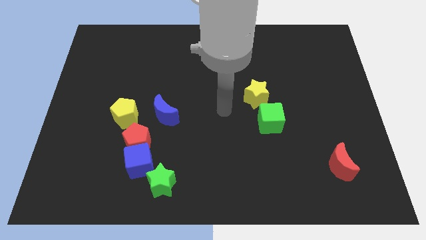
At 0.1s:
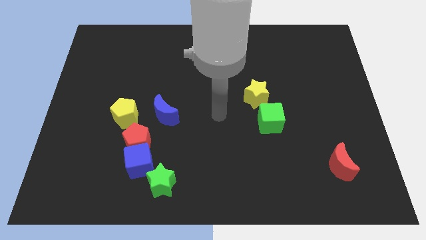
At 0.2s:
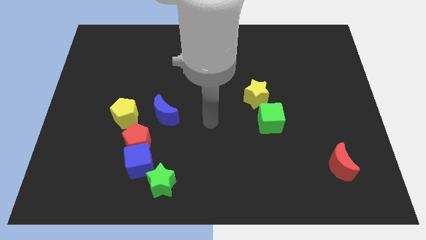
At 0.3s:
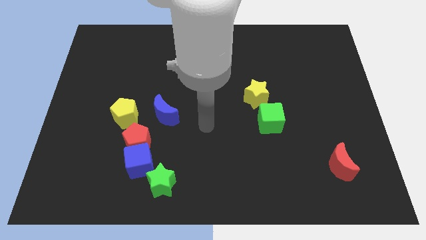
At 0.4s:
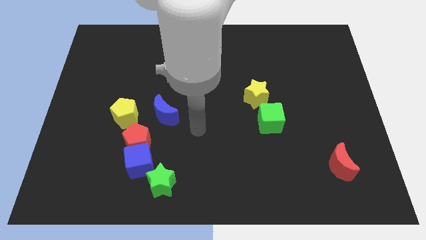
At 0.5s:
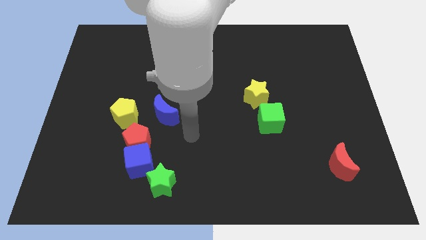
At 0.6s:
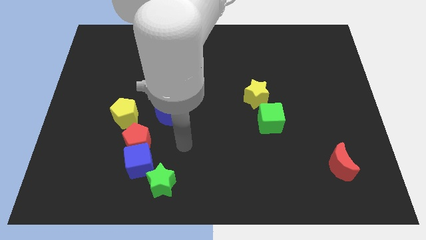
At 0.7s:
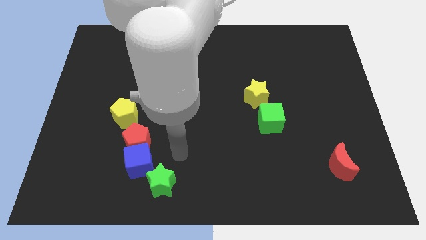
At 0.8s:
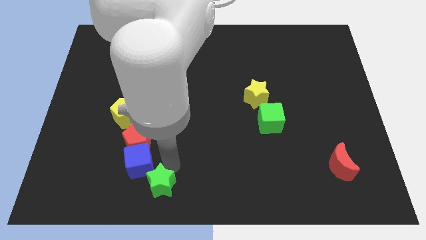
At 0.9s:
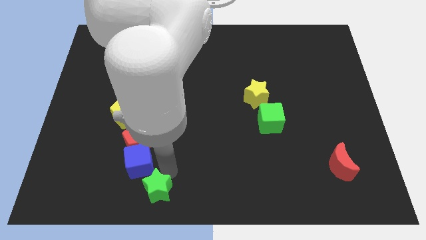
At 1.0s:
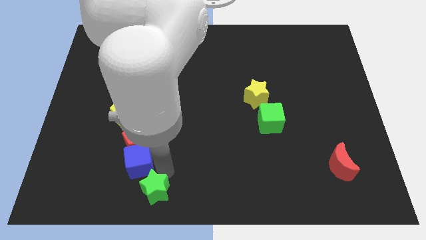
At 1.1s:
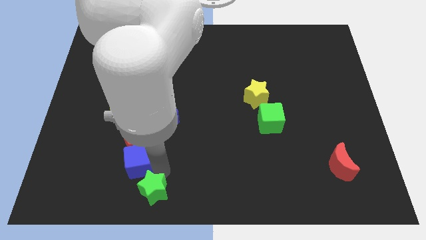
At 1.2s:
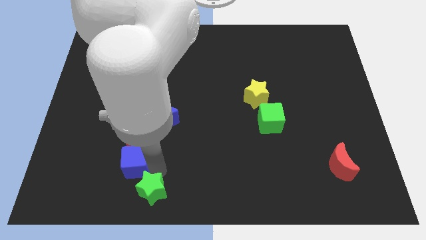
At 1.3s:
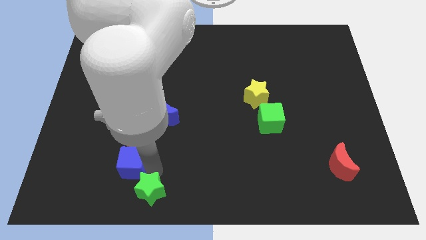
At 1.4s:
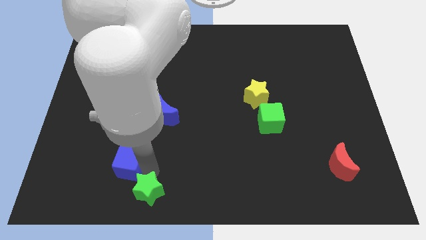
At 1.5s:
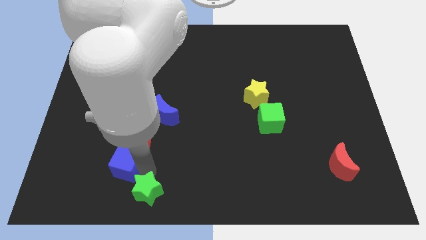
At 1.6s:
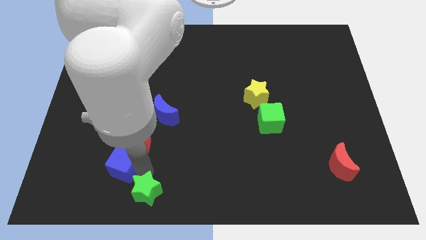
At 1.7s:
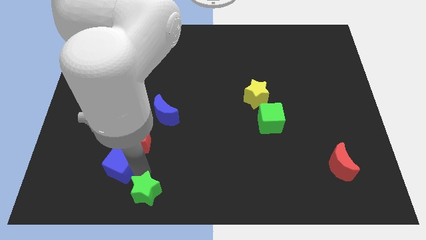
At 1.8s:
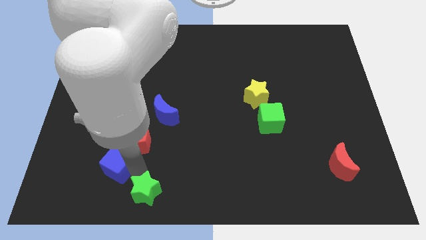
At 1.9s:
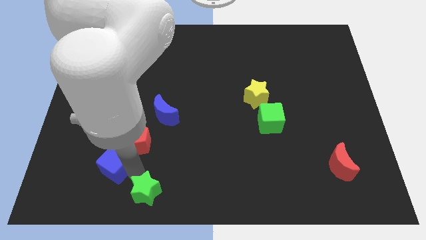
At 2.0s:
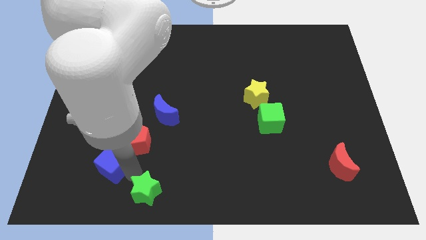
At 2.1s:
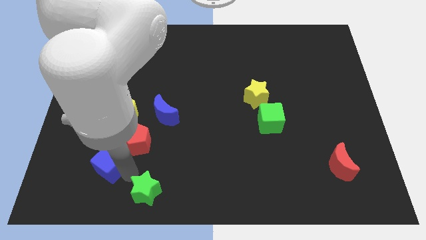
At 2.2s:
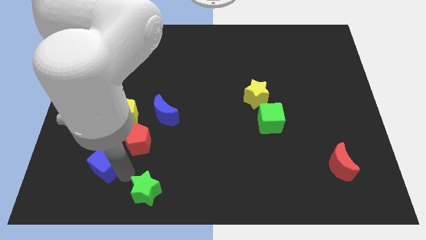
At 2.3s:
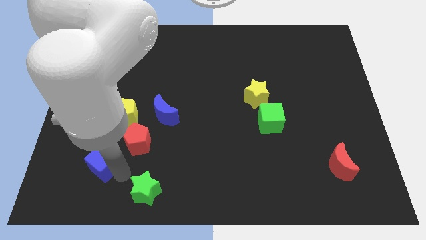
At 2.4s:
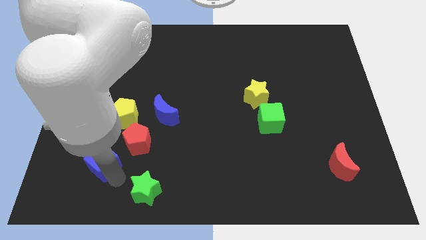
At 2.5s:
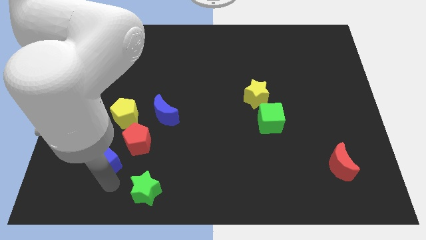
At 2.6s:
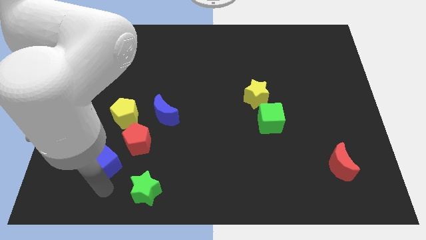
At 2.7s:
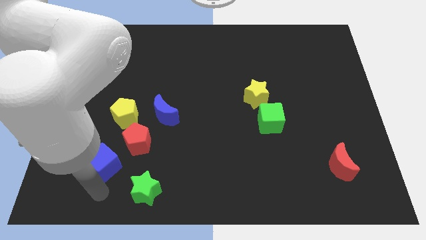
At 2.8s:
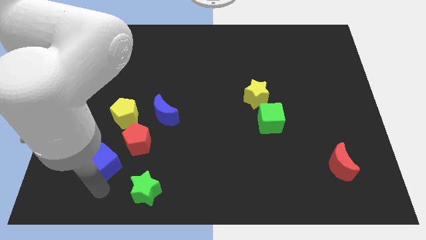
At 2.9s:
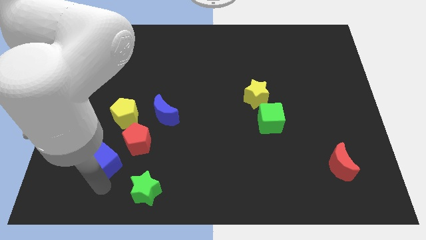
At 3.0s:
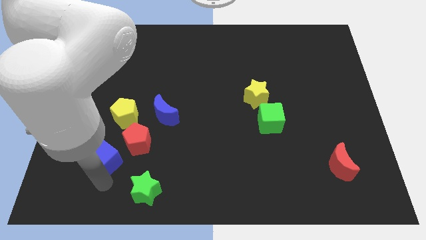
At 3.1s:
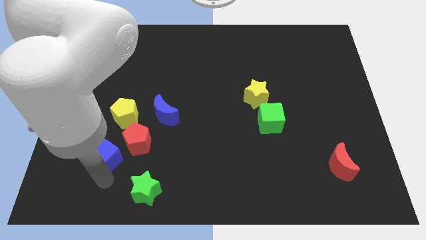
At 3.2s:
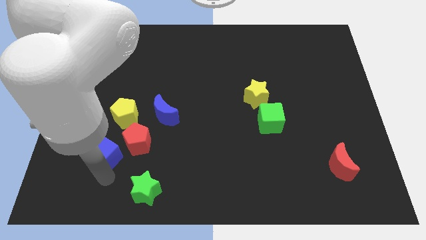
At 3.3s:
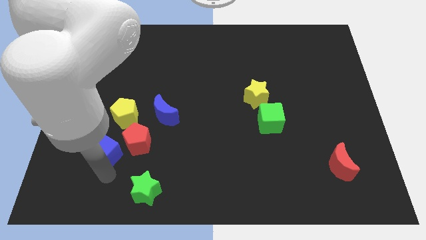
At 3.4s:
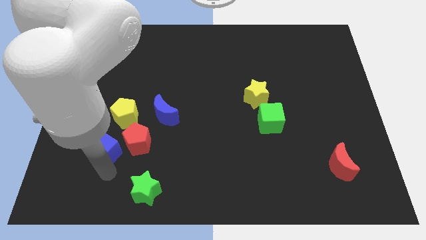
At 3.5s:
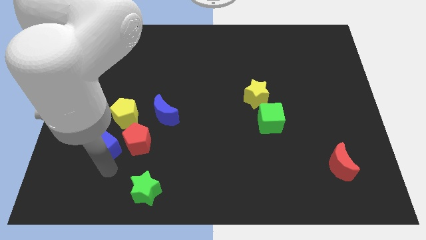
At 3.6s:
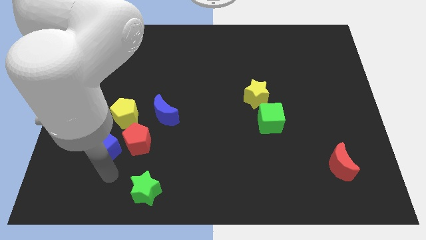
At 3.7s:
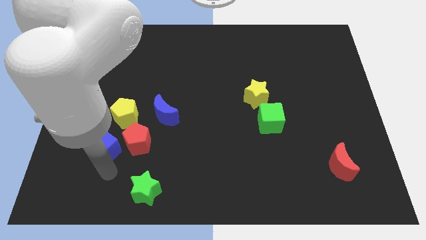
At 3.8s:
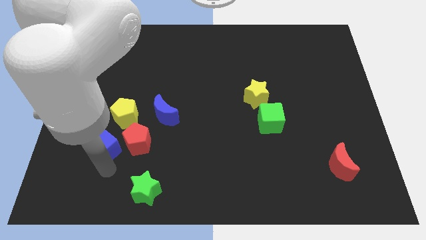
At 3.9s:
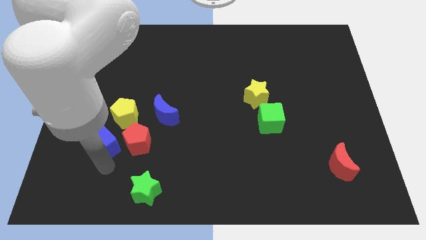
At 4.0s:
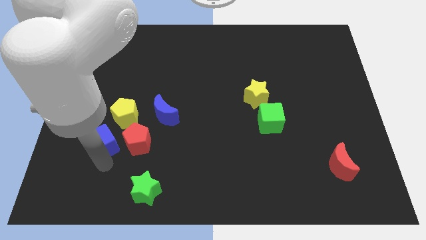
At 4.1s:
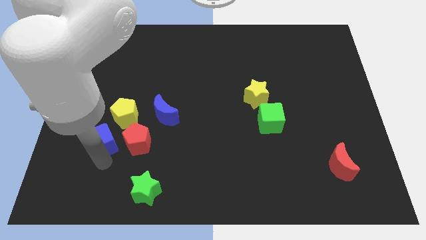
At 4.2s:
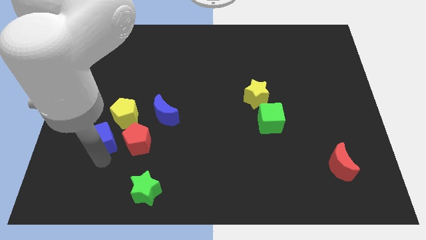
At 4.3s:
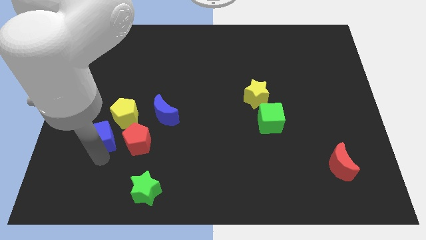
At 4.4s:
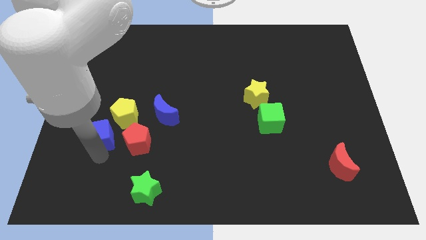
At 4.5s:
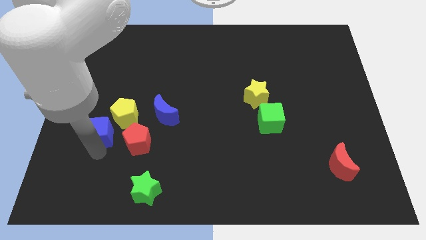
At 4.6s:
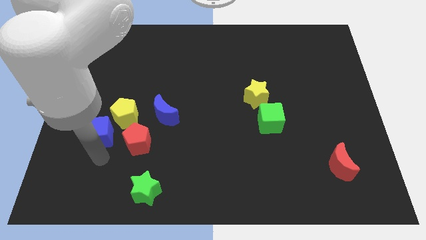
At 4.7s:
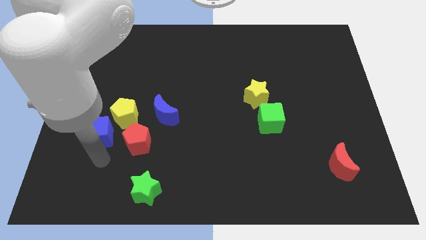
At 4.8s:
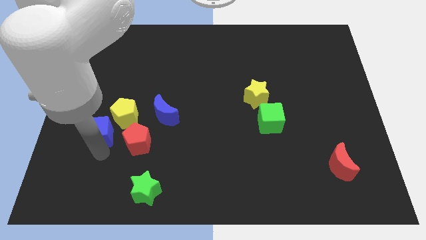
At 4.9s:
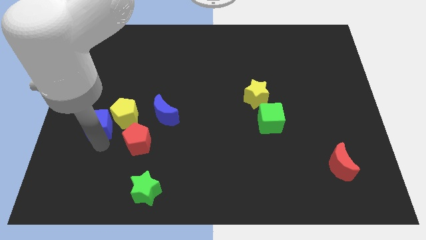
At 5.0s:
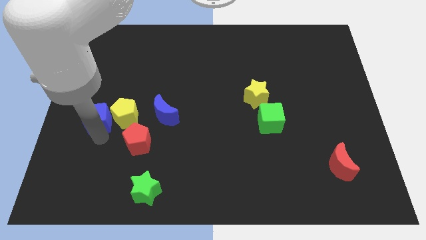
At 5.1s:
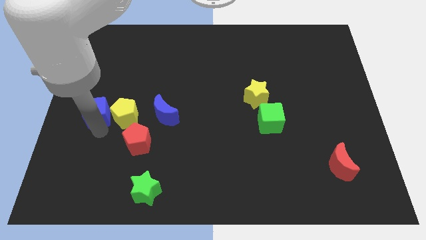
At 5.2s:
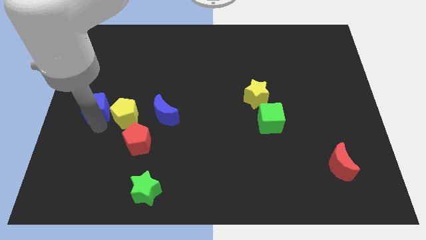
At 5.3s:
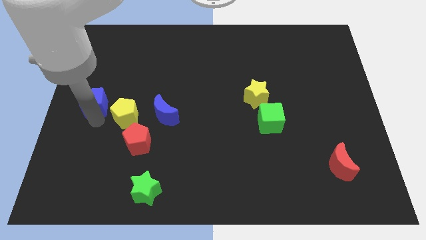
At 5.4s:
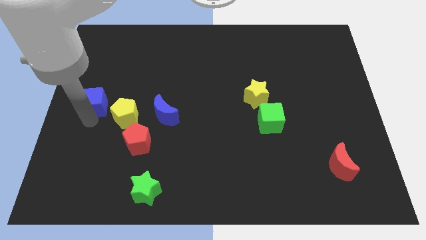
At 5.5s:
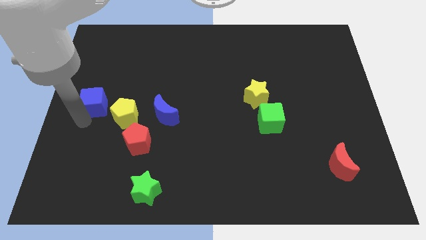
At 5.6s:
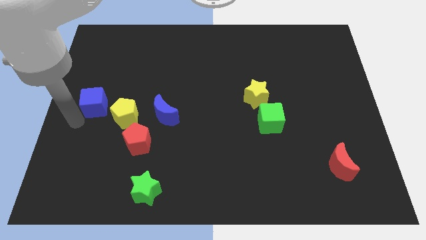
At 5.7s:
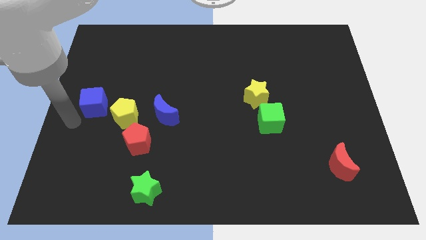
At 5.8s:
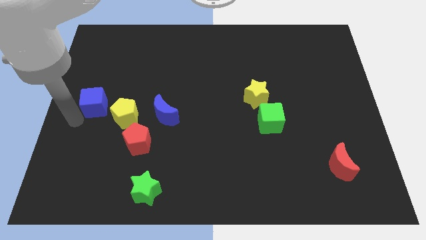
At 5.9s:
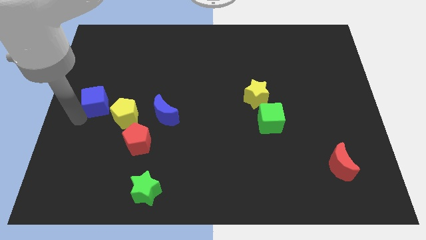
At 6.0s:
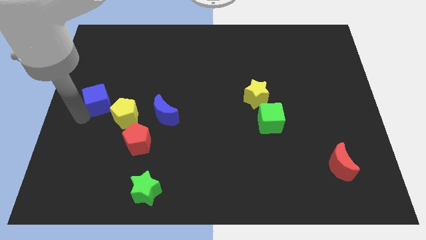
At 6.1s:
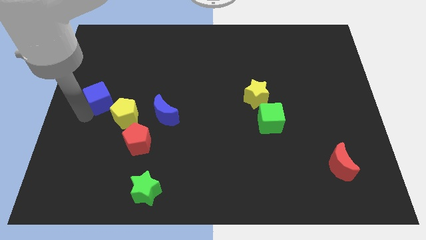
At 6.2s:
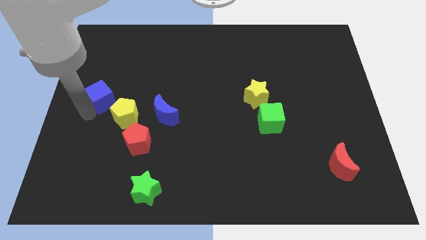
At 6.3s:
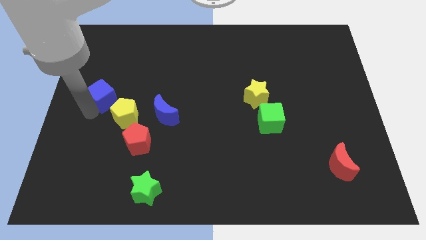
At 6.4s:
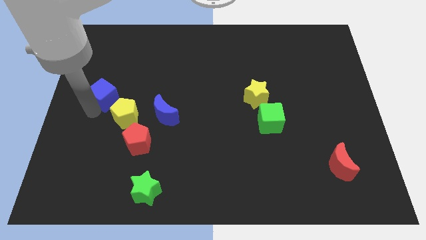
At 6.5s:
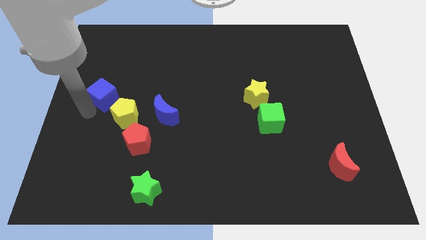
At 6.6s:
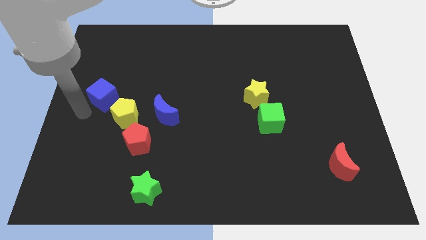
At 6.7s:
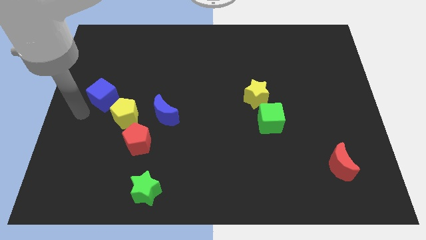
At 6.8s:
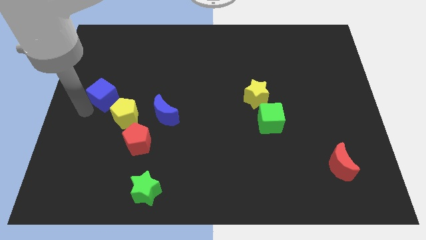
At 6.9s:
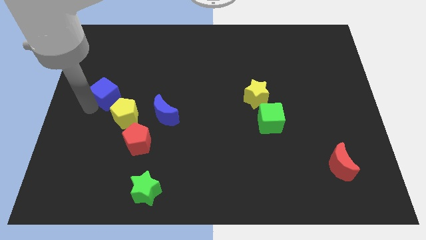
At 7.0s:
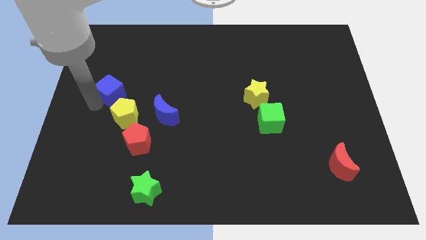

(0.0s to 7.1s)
slide the blue cube to the top side of the yellow pentagon
